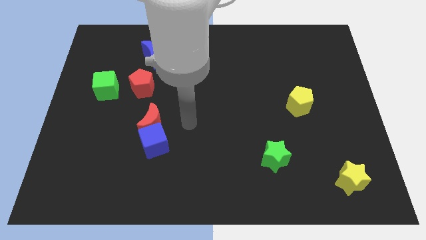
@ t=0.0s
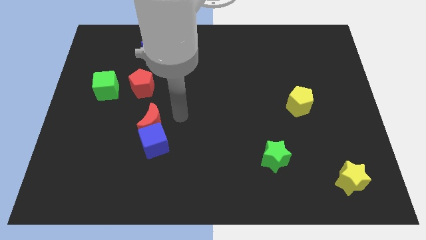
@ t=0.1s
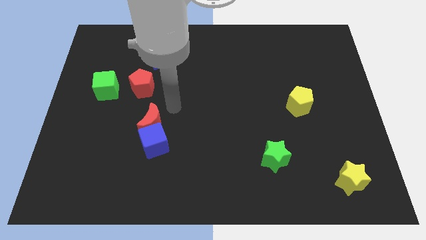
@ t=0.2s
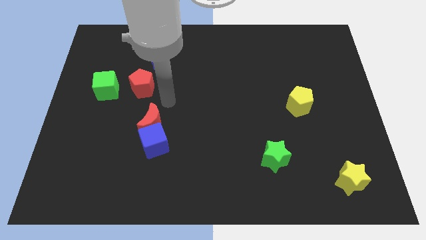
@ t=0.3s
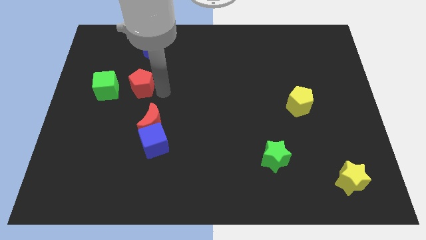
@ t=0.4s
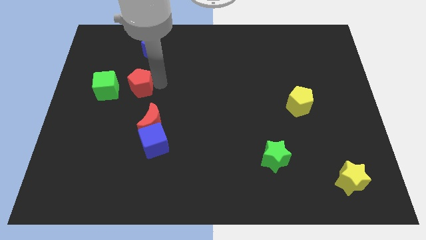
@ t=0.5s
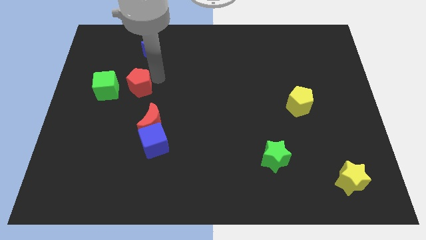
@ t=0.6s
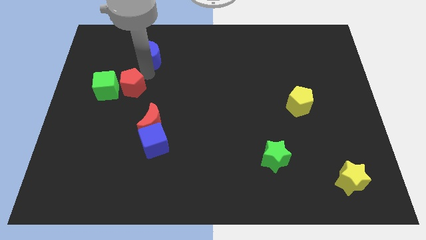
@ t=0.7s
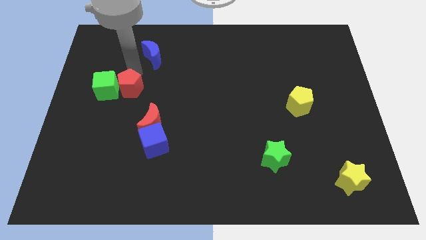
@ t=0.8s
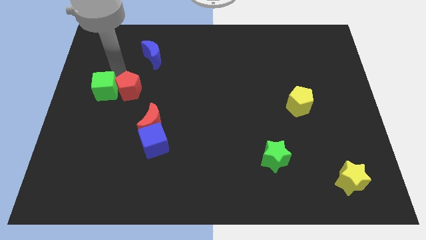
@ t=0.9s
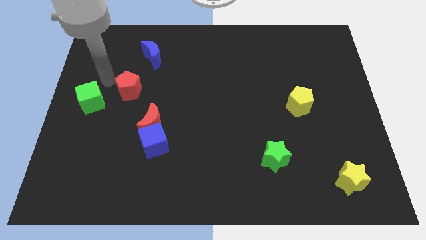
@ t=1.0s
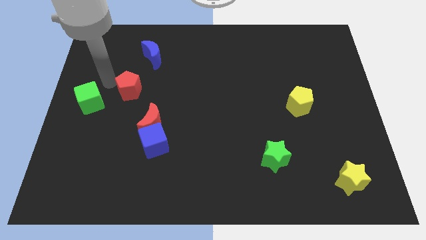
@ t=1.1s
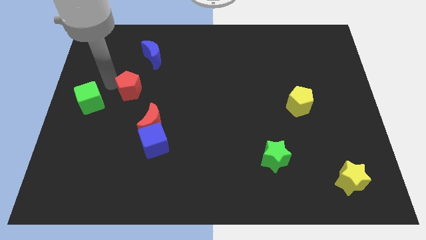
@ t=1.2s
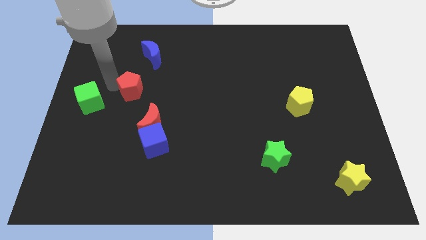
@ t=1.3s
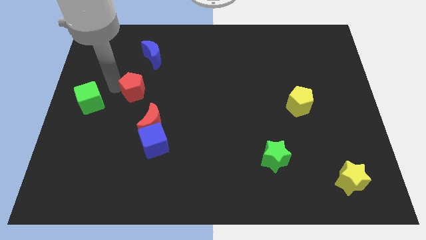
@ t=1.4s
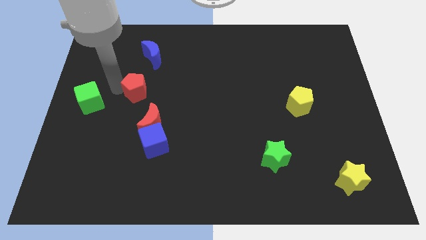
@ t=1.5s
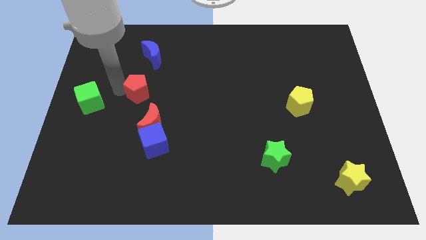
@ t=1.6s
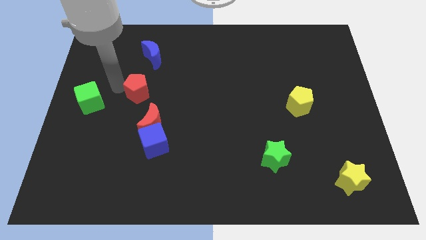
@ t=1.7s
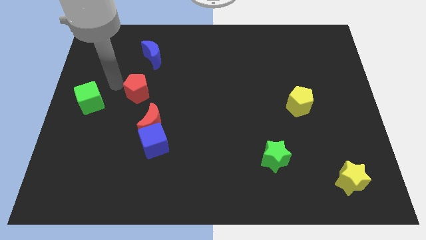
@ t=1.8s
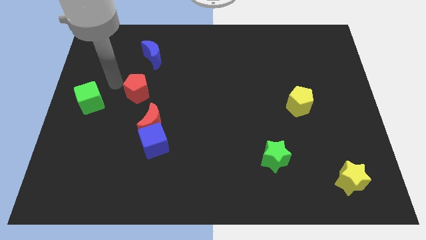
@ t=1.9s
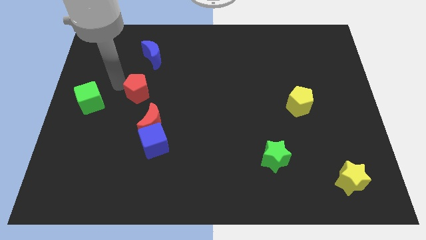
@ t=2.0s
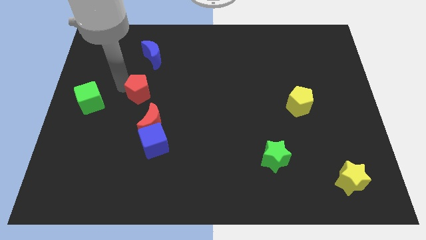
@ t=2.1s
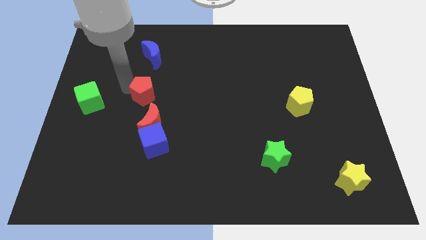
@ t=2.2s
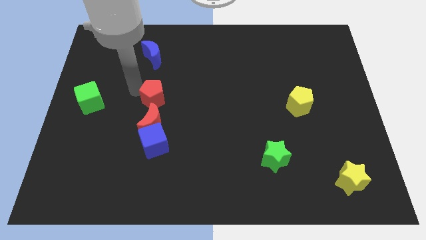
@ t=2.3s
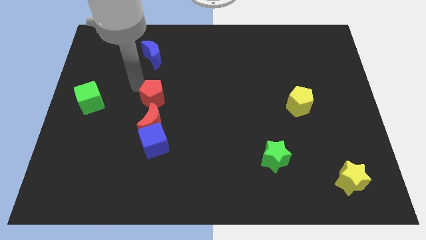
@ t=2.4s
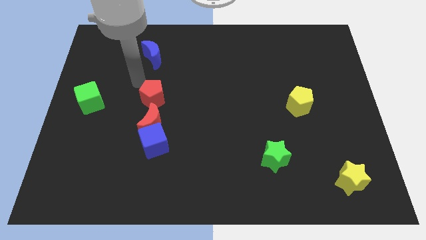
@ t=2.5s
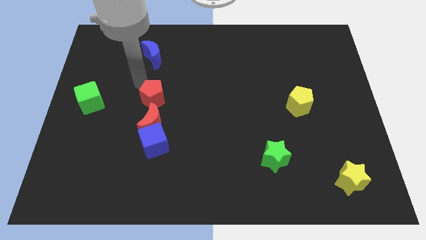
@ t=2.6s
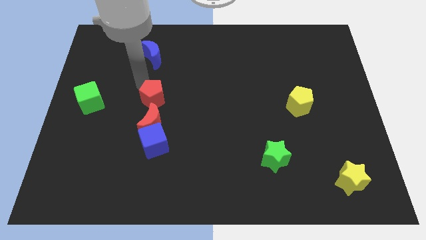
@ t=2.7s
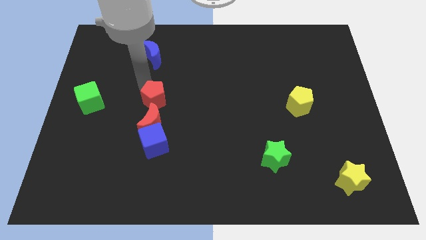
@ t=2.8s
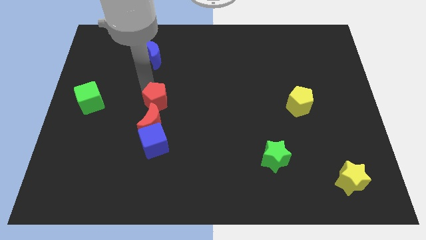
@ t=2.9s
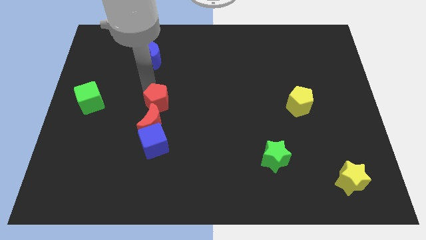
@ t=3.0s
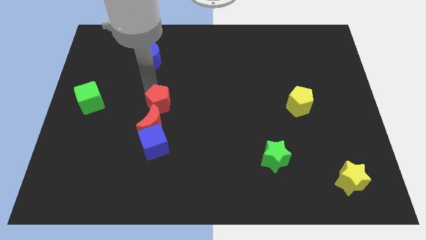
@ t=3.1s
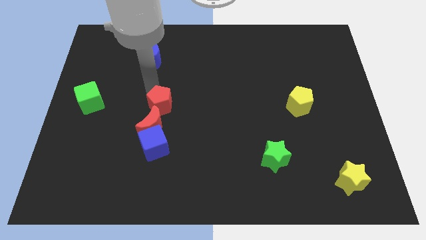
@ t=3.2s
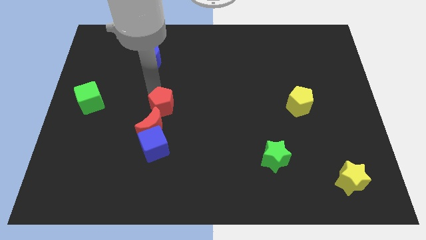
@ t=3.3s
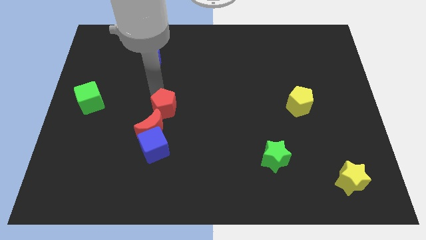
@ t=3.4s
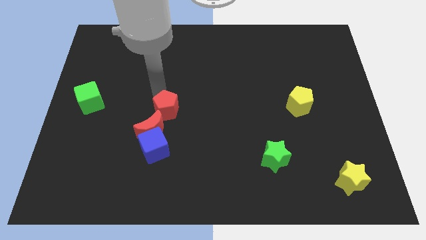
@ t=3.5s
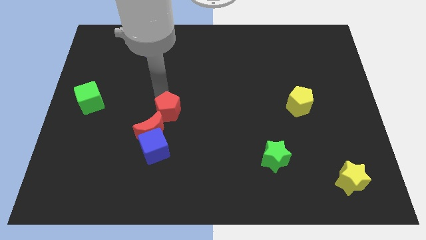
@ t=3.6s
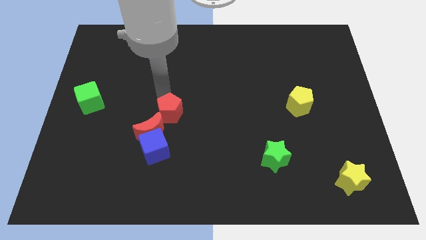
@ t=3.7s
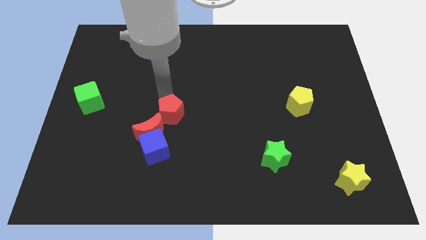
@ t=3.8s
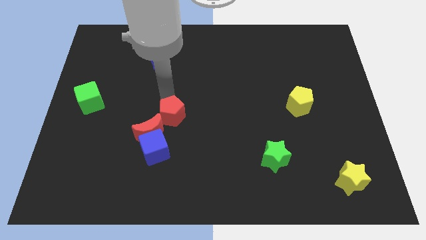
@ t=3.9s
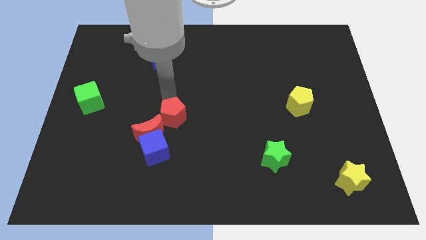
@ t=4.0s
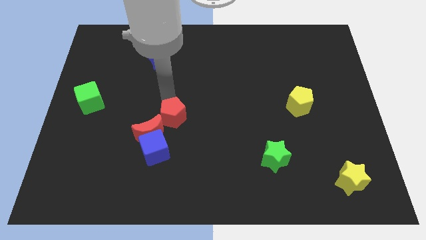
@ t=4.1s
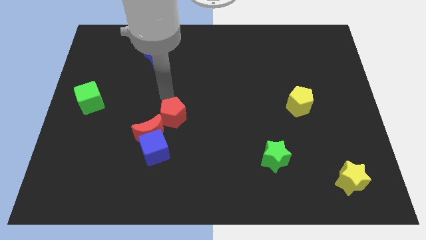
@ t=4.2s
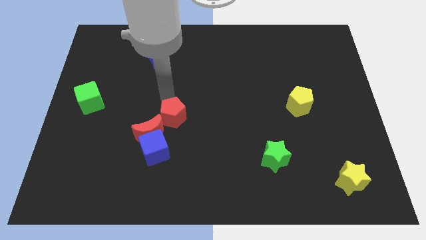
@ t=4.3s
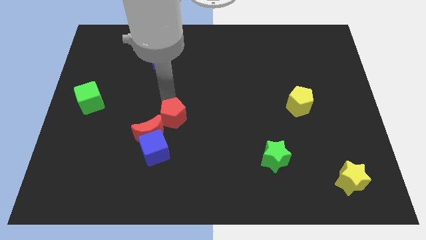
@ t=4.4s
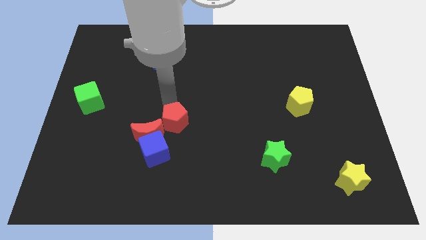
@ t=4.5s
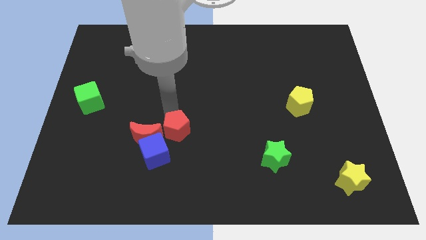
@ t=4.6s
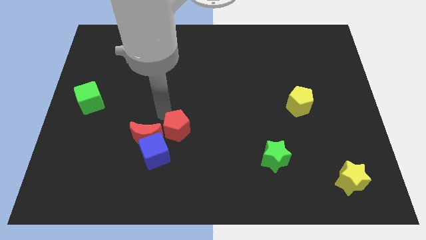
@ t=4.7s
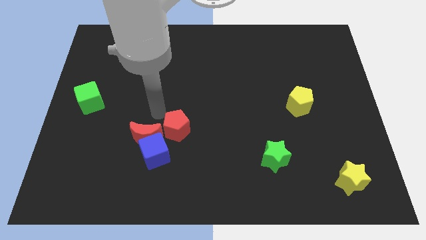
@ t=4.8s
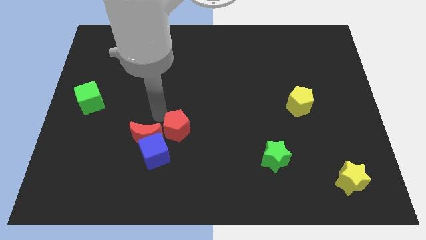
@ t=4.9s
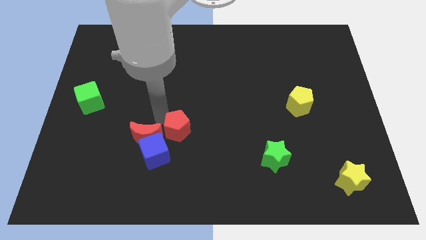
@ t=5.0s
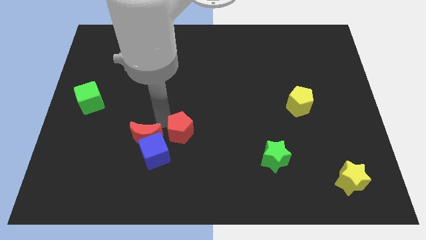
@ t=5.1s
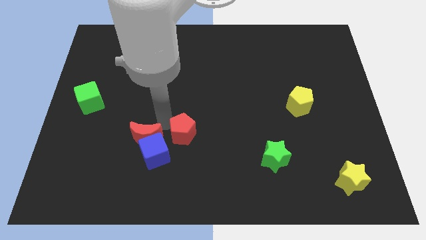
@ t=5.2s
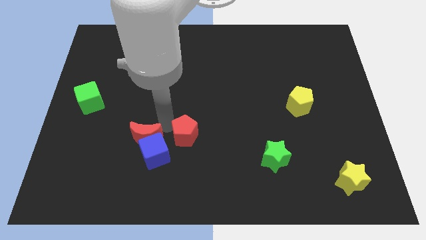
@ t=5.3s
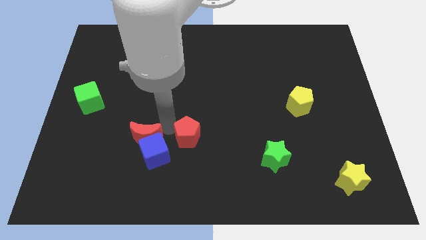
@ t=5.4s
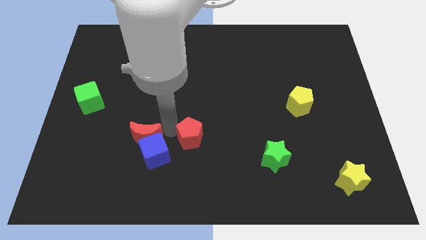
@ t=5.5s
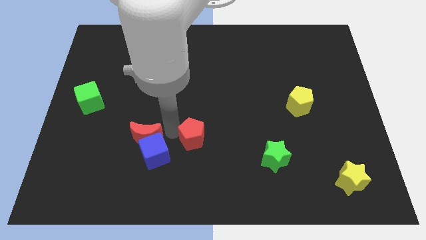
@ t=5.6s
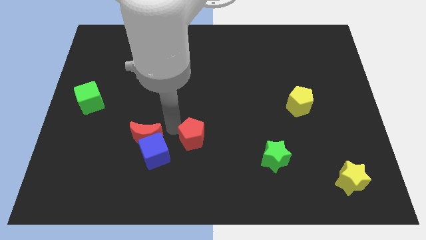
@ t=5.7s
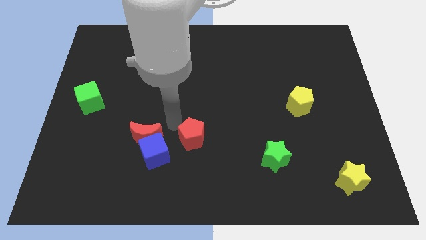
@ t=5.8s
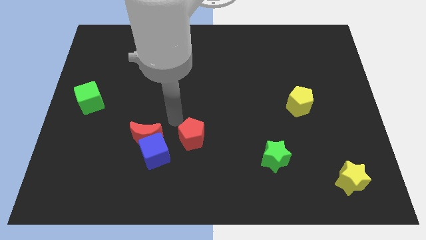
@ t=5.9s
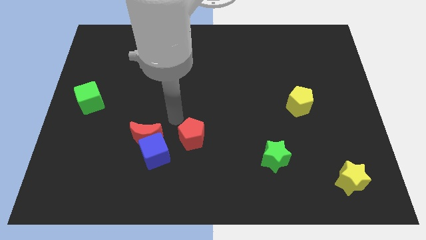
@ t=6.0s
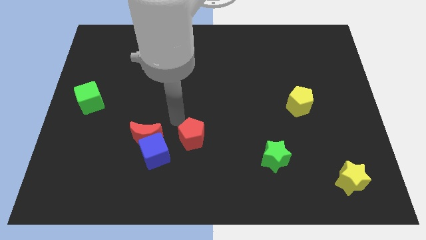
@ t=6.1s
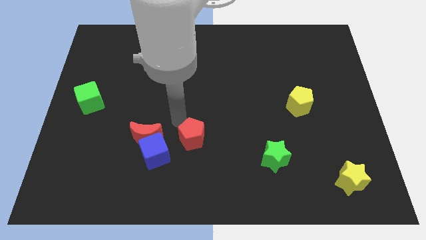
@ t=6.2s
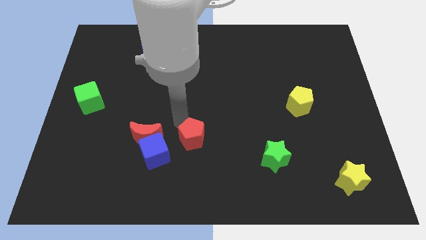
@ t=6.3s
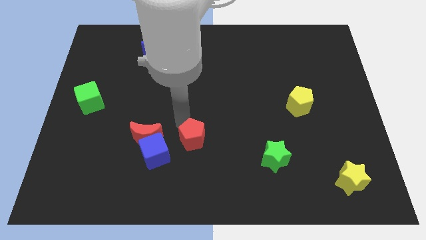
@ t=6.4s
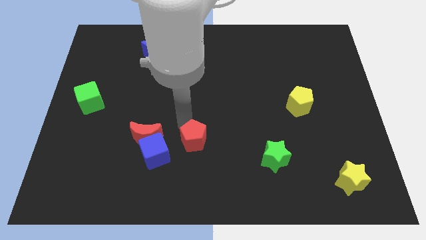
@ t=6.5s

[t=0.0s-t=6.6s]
move the red pentagon downwards and to the right

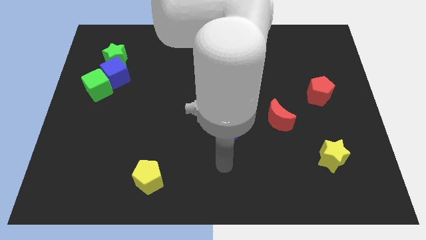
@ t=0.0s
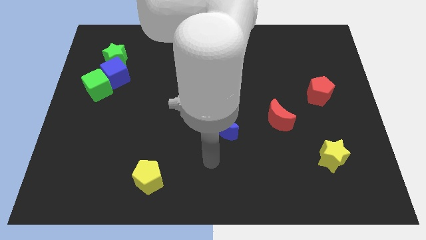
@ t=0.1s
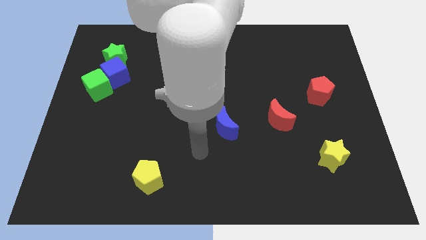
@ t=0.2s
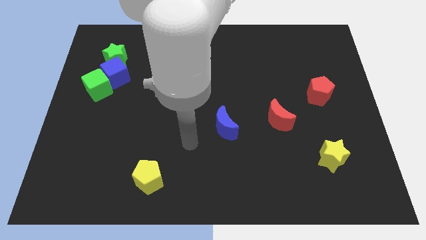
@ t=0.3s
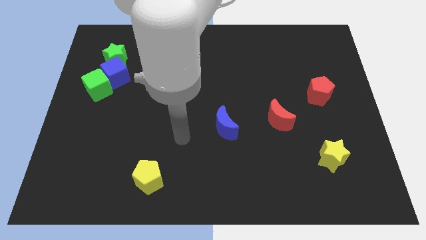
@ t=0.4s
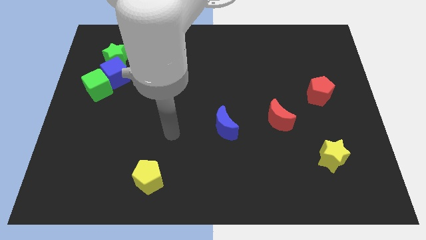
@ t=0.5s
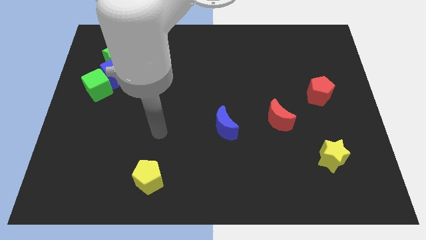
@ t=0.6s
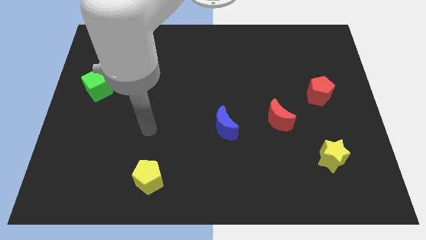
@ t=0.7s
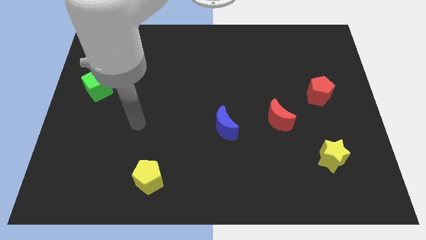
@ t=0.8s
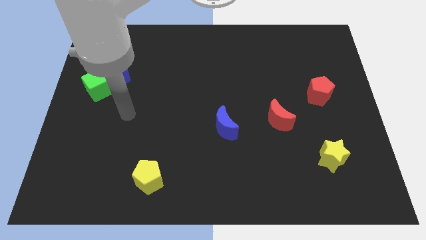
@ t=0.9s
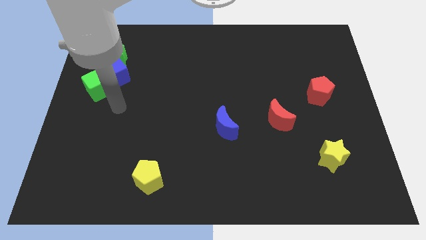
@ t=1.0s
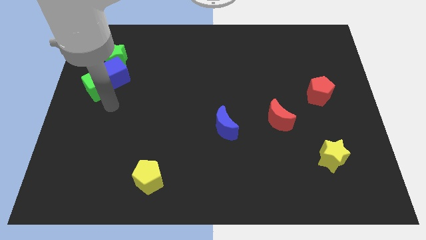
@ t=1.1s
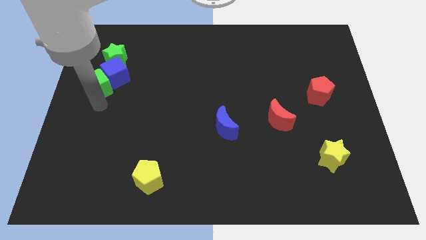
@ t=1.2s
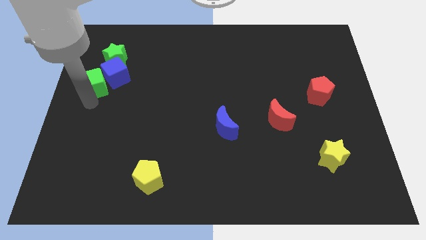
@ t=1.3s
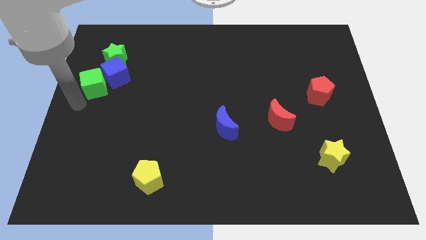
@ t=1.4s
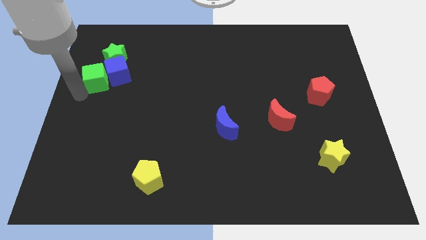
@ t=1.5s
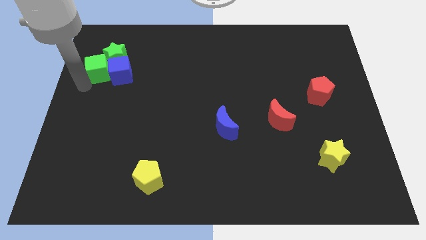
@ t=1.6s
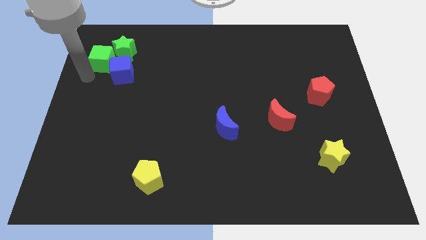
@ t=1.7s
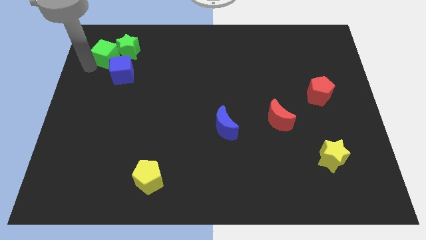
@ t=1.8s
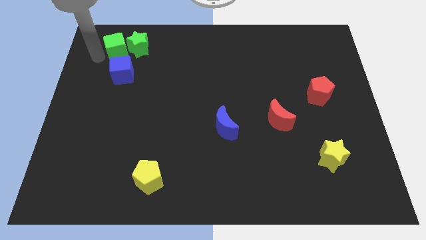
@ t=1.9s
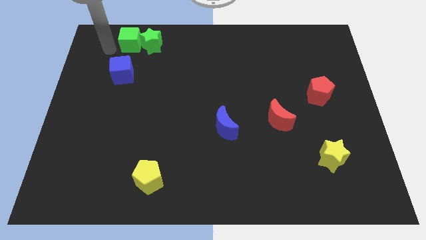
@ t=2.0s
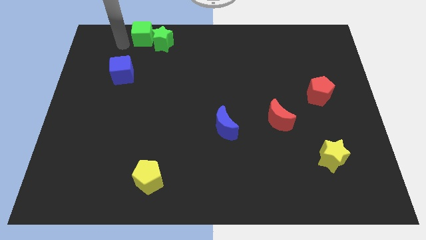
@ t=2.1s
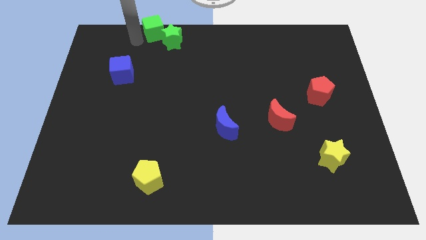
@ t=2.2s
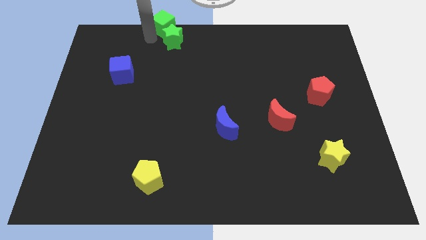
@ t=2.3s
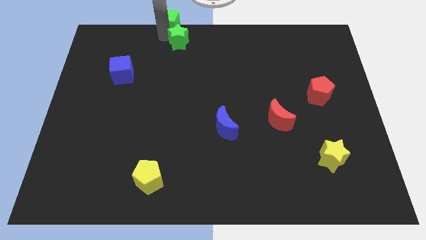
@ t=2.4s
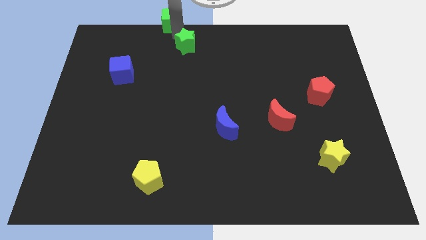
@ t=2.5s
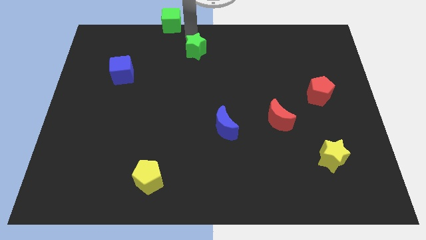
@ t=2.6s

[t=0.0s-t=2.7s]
push the green star right
